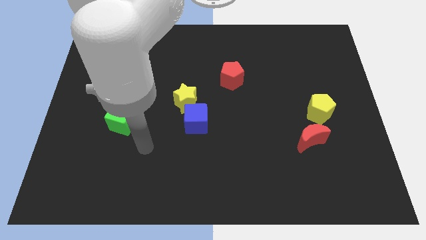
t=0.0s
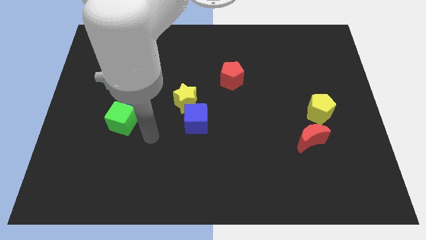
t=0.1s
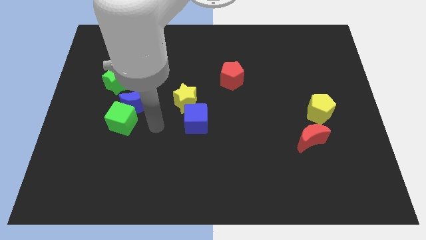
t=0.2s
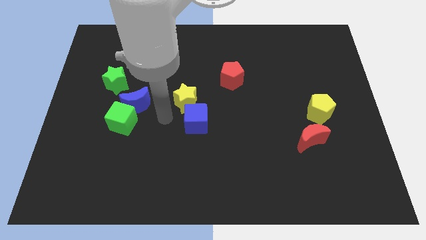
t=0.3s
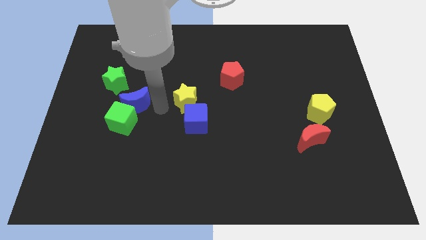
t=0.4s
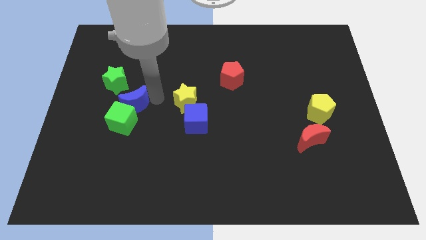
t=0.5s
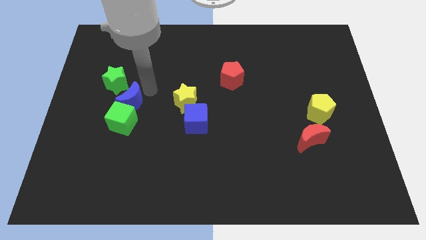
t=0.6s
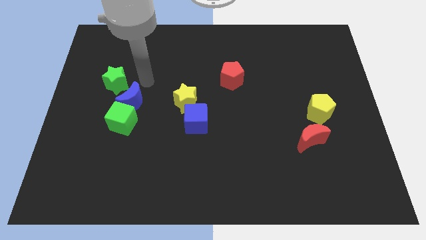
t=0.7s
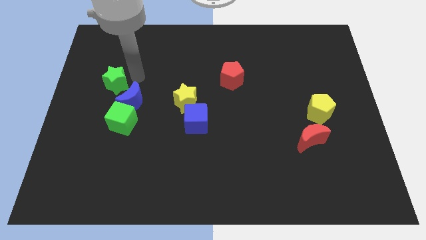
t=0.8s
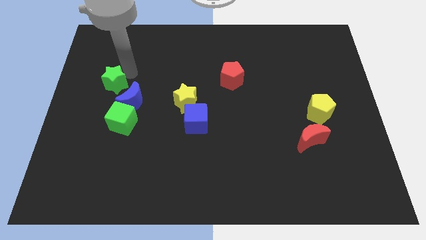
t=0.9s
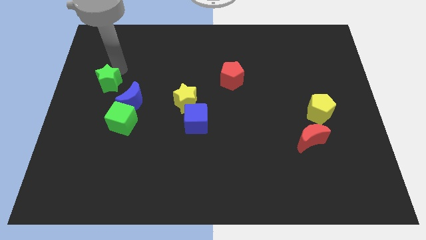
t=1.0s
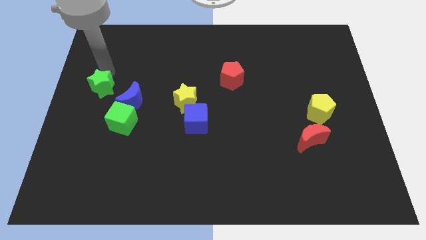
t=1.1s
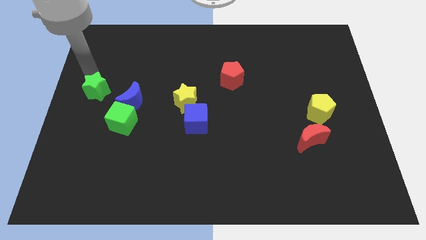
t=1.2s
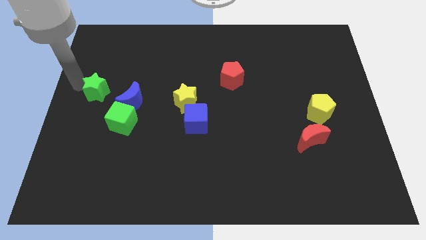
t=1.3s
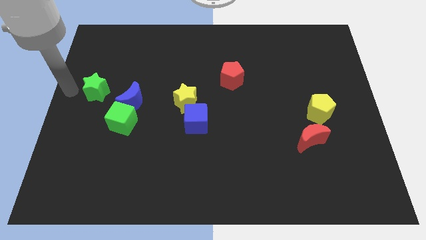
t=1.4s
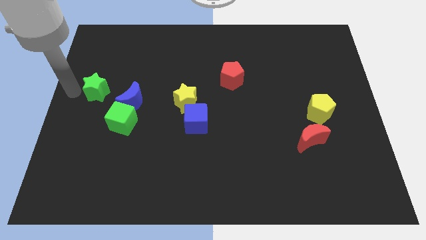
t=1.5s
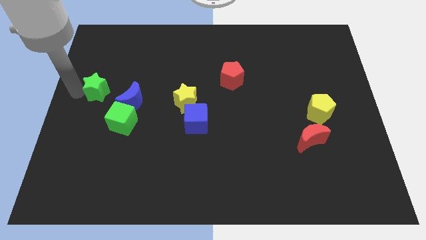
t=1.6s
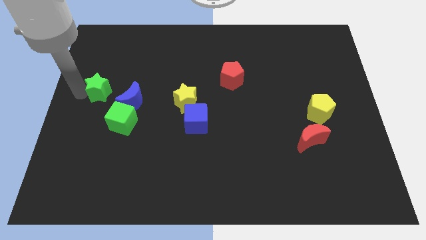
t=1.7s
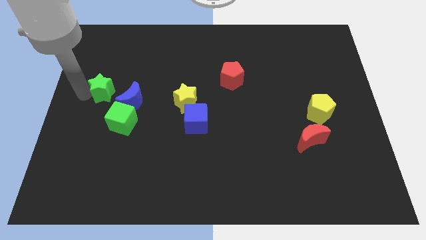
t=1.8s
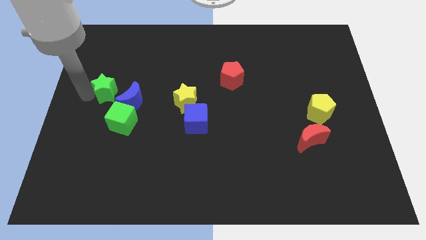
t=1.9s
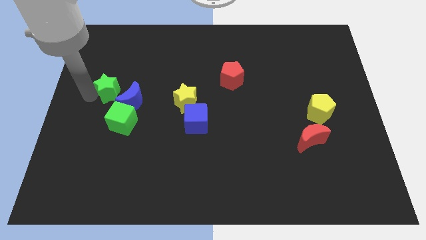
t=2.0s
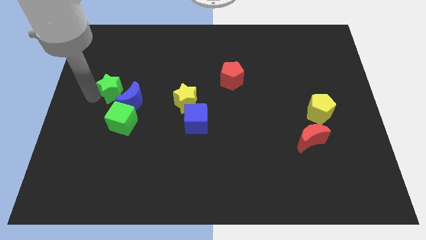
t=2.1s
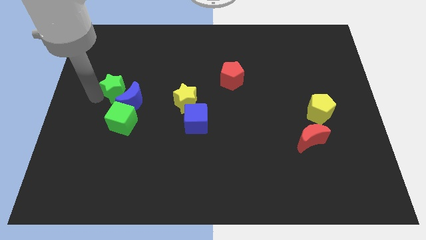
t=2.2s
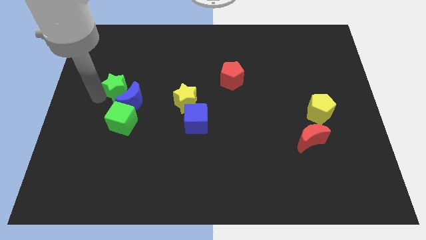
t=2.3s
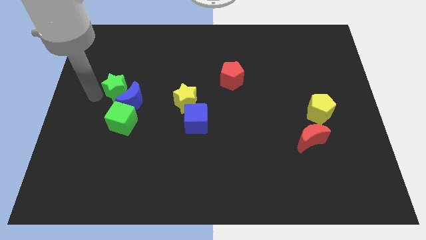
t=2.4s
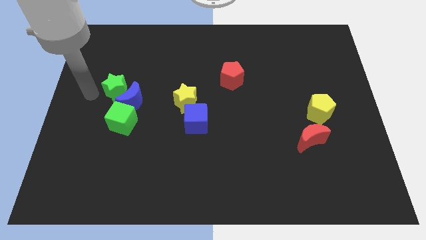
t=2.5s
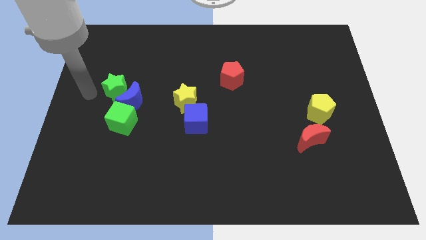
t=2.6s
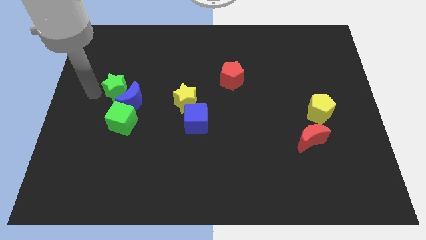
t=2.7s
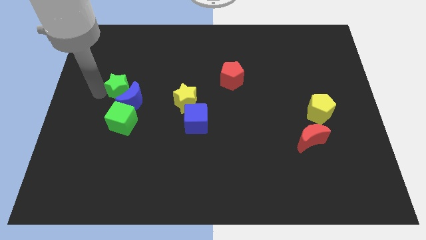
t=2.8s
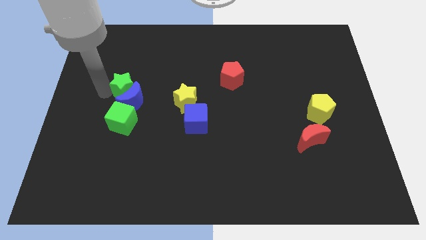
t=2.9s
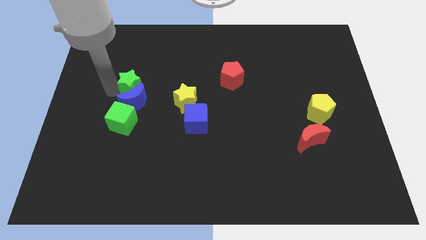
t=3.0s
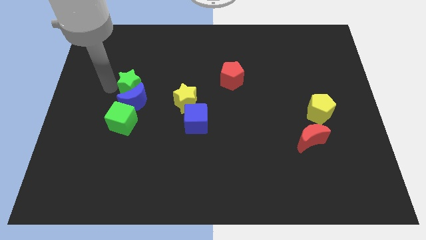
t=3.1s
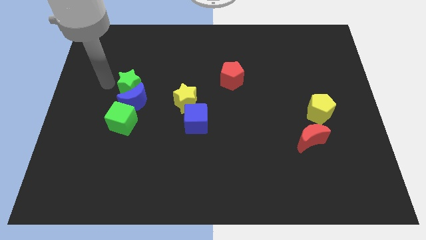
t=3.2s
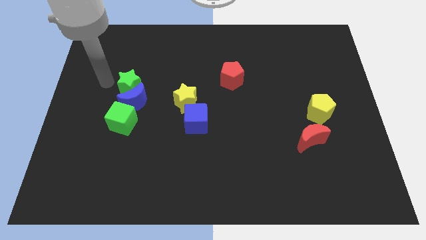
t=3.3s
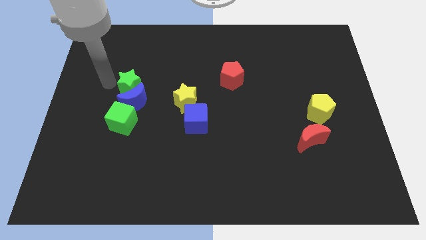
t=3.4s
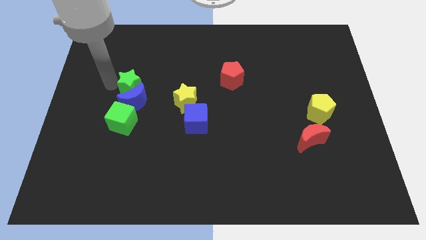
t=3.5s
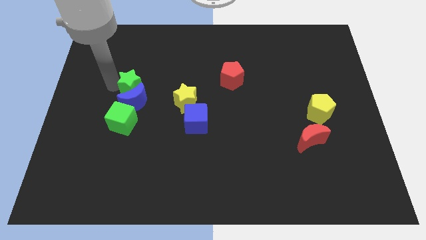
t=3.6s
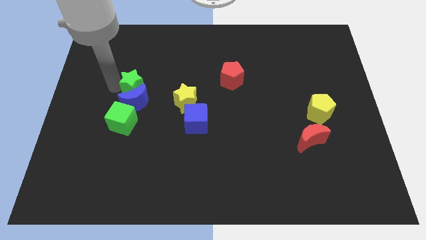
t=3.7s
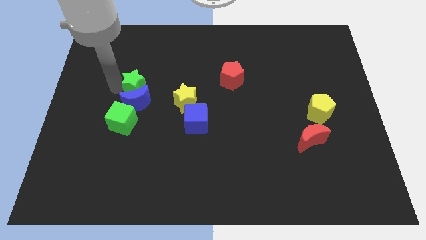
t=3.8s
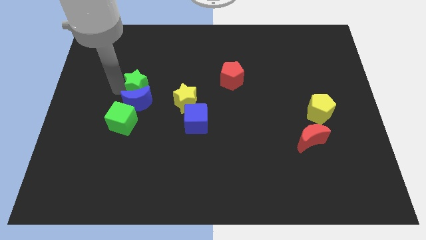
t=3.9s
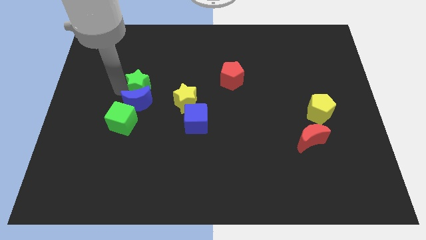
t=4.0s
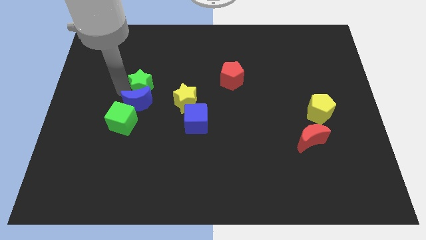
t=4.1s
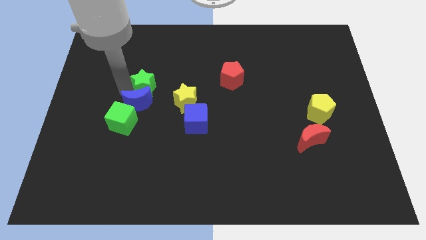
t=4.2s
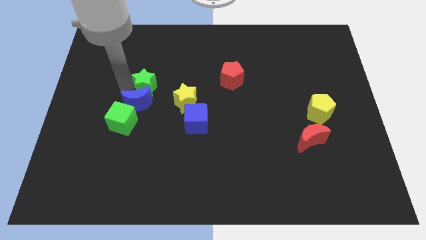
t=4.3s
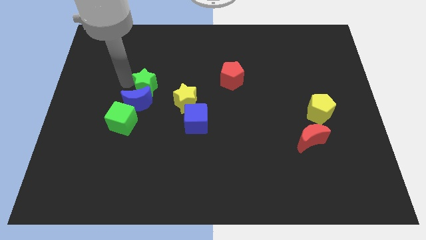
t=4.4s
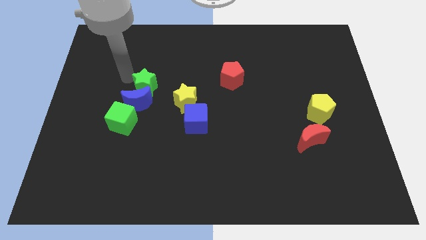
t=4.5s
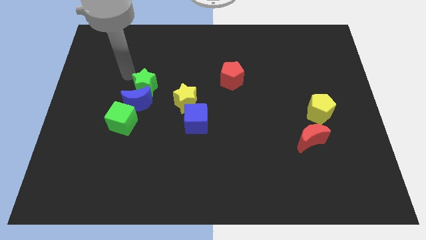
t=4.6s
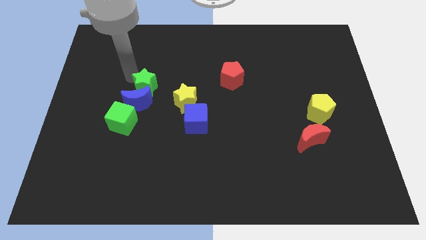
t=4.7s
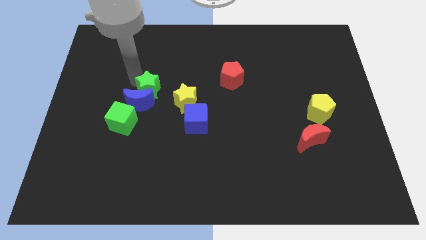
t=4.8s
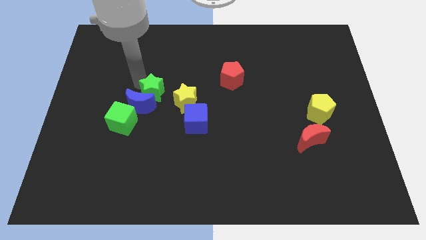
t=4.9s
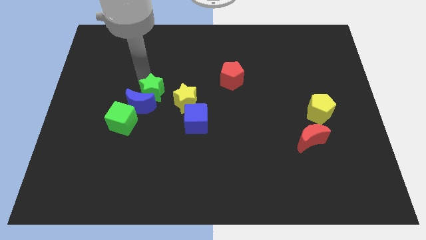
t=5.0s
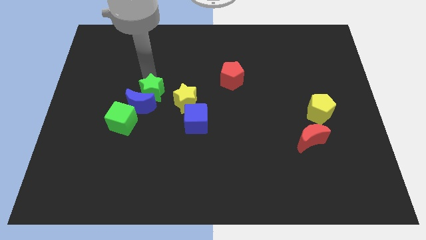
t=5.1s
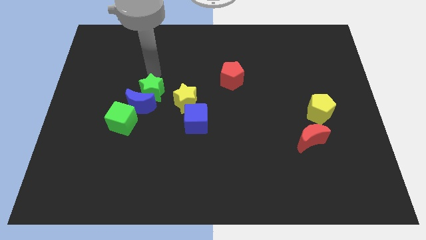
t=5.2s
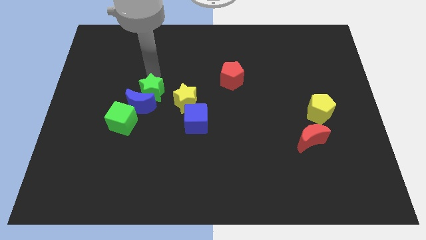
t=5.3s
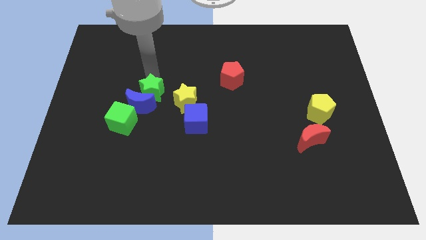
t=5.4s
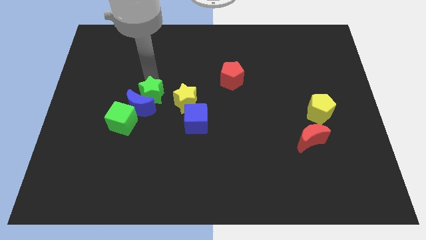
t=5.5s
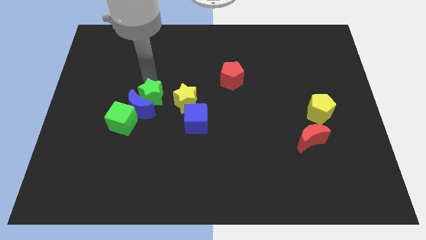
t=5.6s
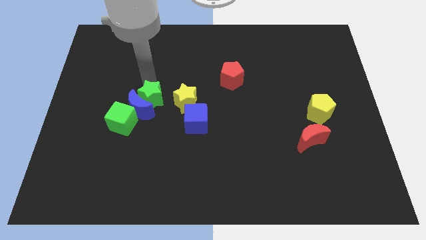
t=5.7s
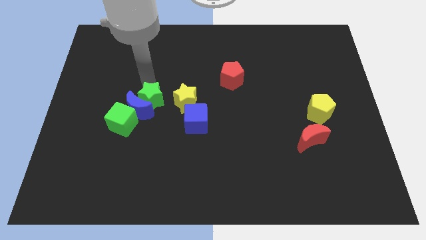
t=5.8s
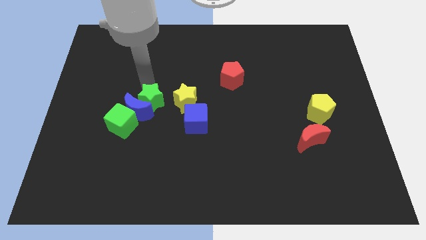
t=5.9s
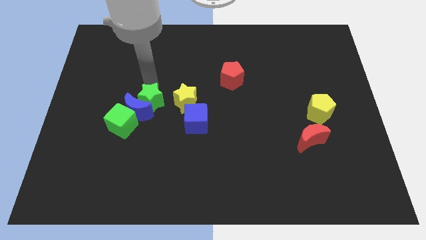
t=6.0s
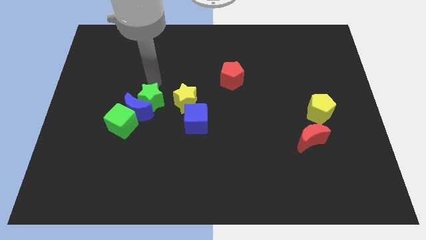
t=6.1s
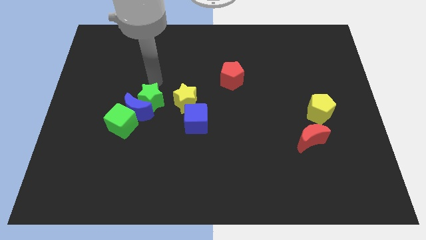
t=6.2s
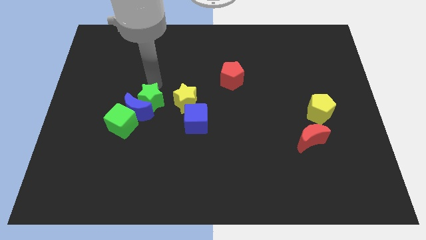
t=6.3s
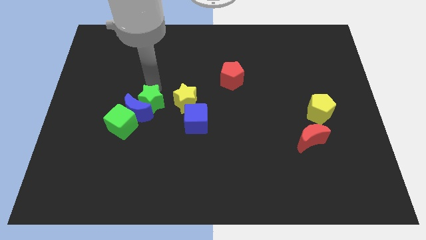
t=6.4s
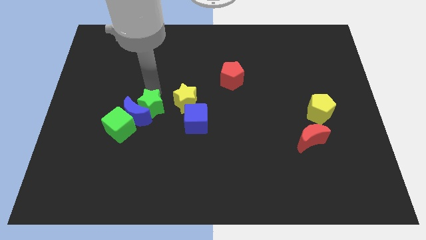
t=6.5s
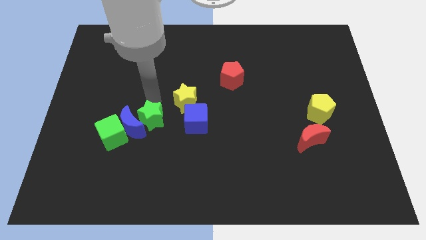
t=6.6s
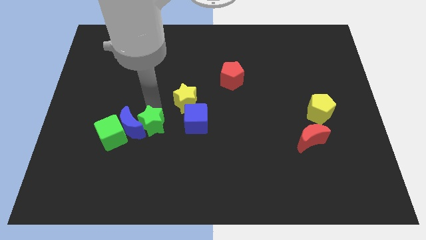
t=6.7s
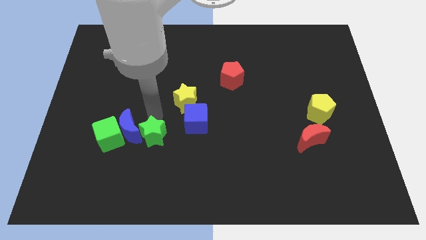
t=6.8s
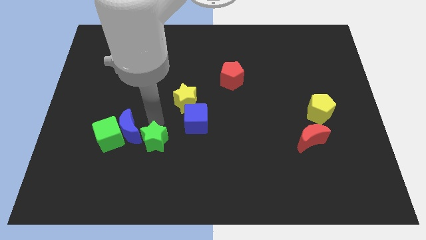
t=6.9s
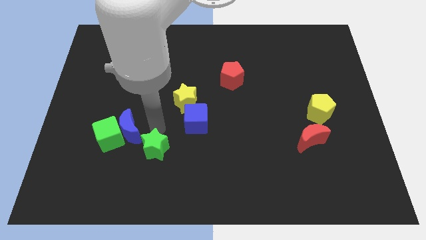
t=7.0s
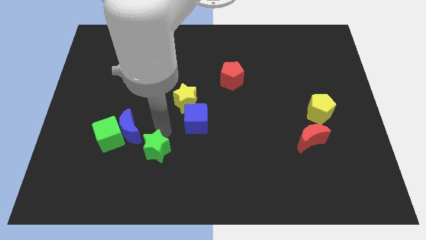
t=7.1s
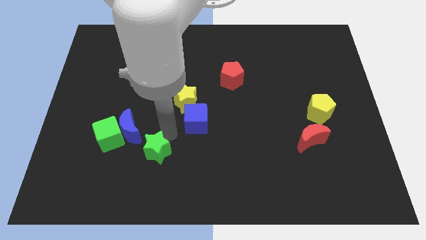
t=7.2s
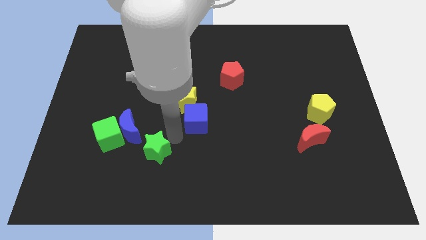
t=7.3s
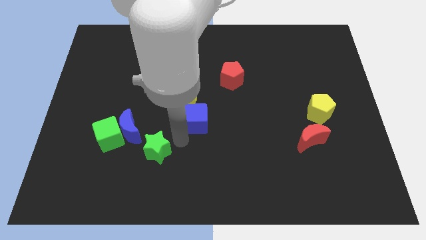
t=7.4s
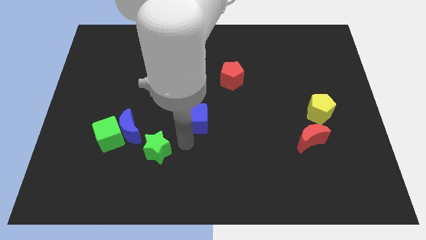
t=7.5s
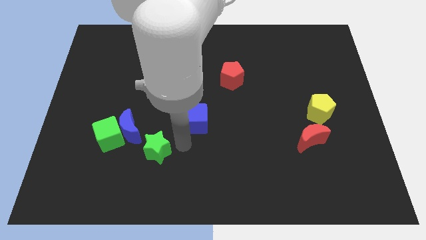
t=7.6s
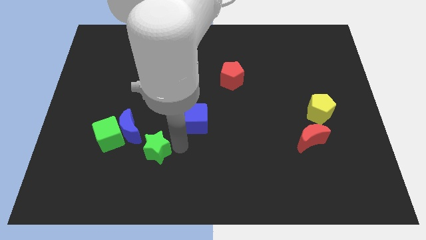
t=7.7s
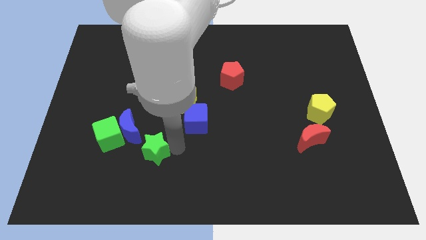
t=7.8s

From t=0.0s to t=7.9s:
put the green star diagonally down and to the right of the green cube
